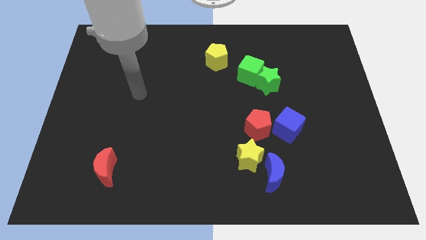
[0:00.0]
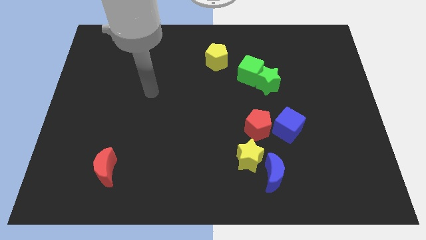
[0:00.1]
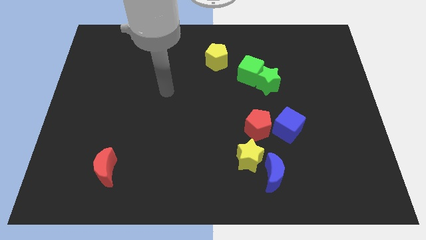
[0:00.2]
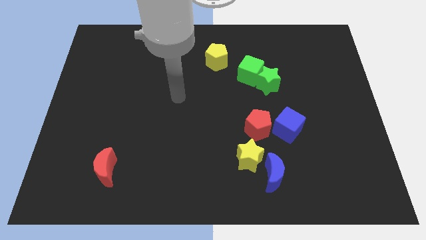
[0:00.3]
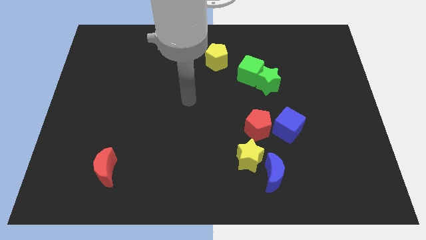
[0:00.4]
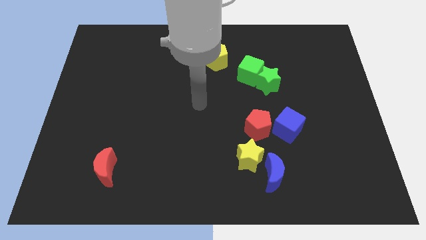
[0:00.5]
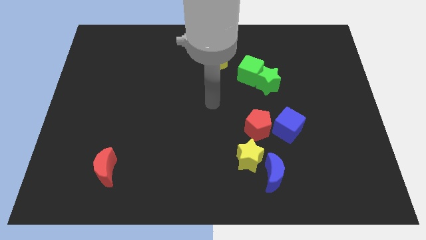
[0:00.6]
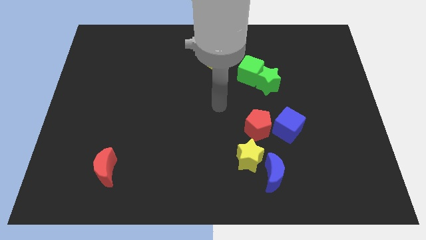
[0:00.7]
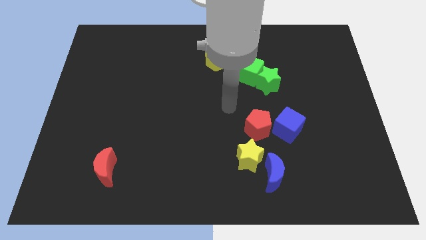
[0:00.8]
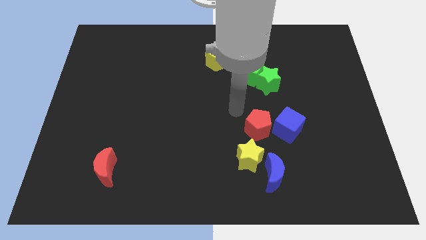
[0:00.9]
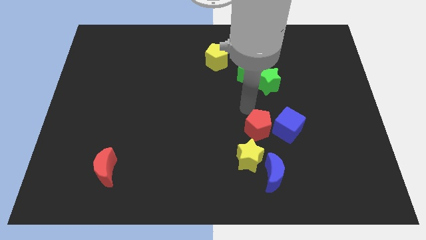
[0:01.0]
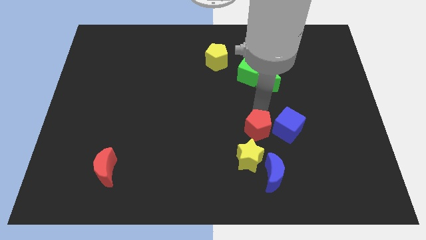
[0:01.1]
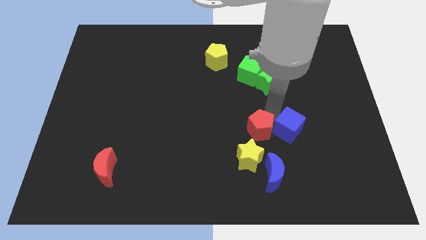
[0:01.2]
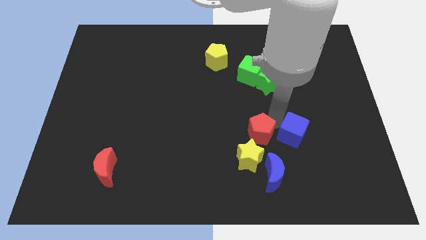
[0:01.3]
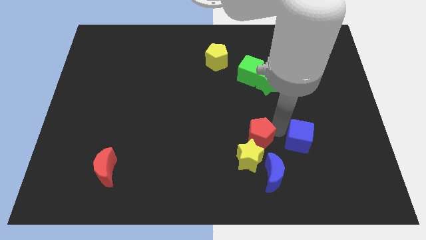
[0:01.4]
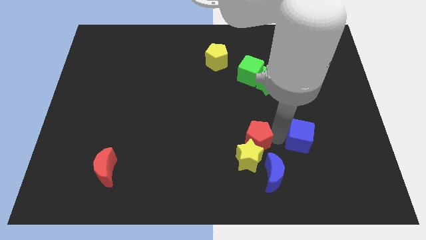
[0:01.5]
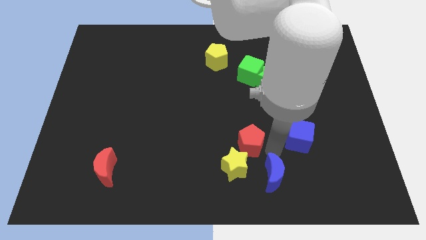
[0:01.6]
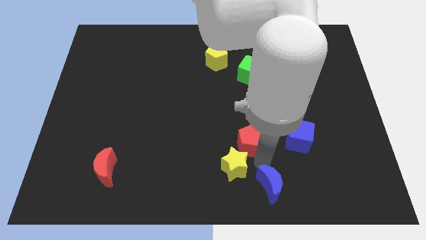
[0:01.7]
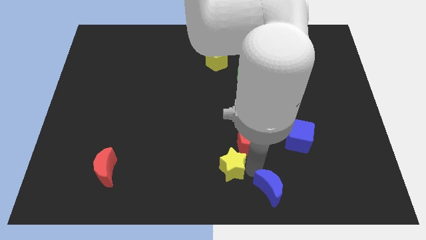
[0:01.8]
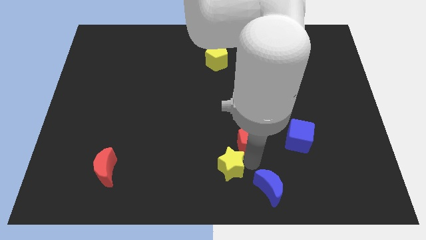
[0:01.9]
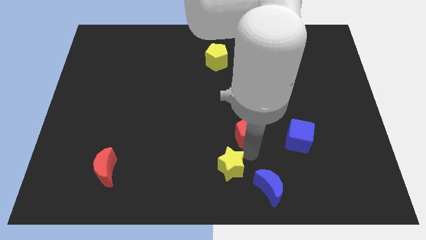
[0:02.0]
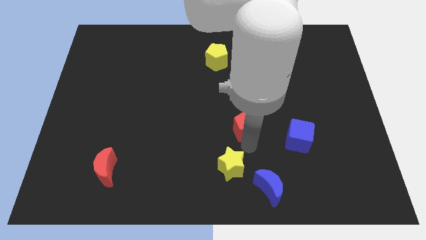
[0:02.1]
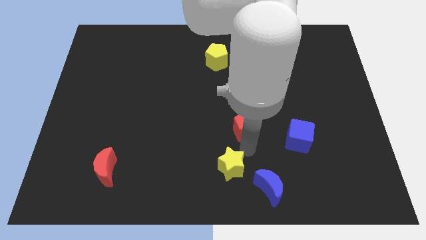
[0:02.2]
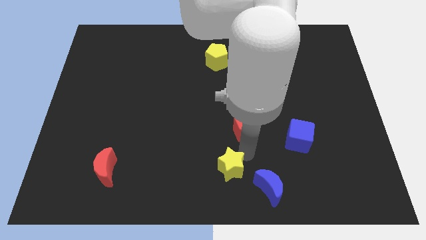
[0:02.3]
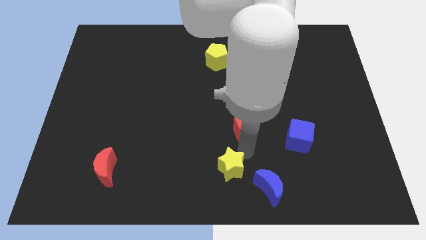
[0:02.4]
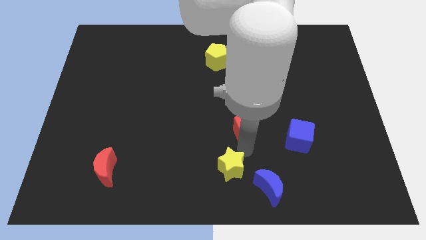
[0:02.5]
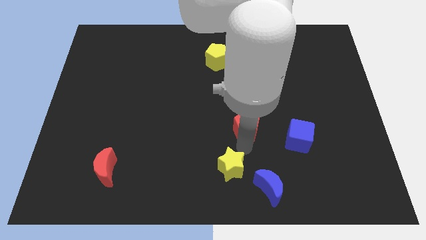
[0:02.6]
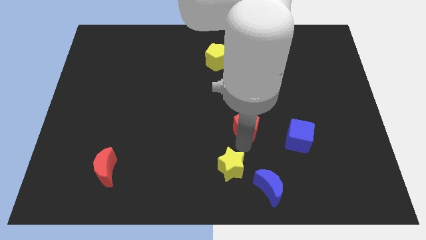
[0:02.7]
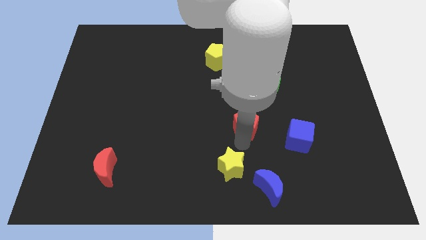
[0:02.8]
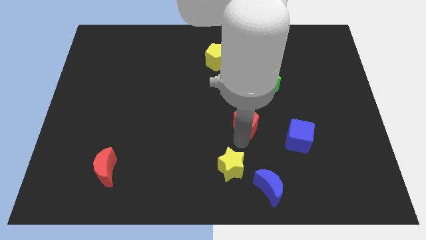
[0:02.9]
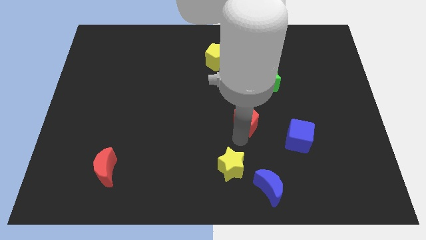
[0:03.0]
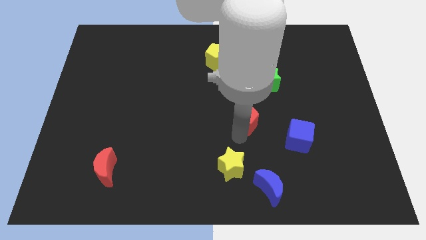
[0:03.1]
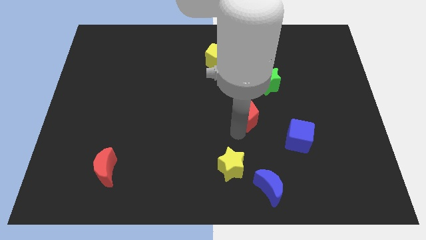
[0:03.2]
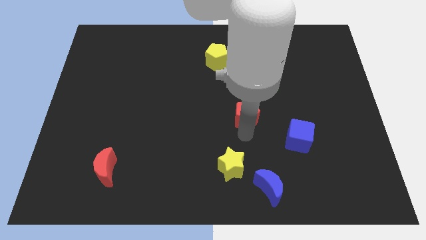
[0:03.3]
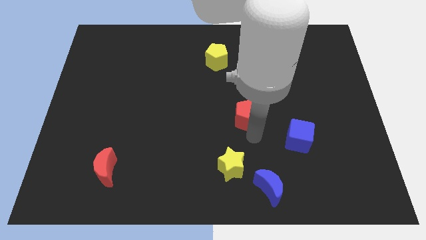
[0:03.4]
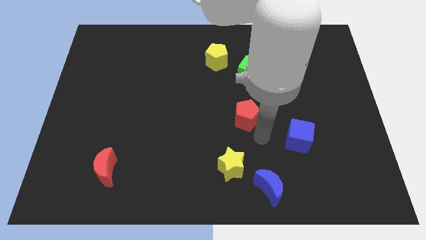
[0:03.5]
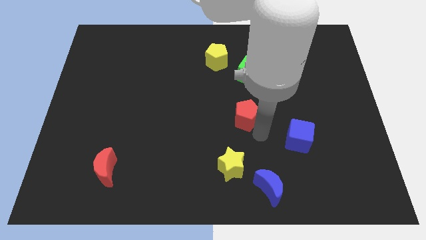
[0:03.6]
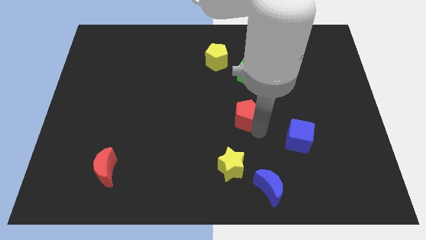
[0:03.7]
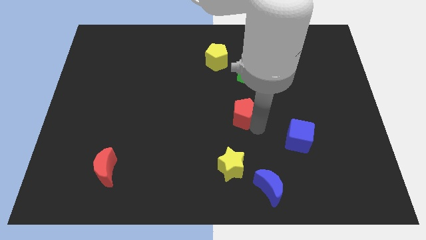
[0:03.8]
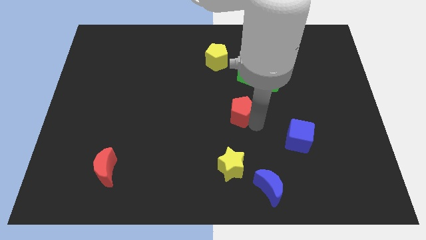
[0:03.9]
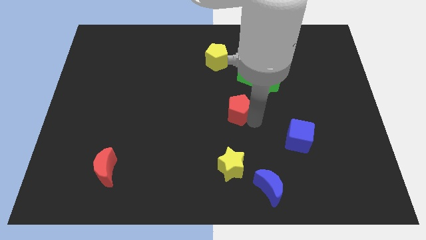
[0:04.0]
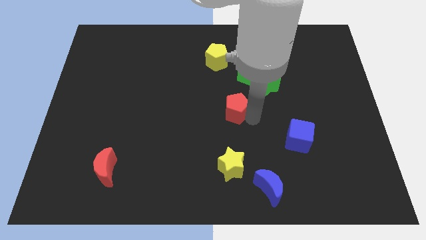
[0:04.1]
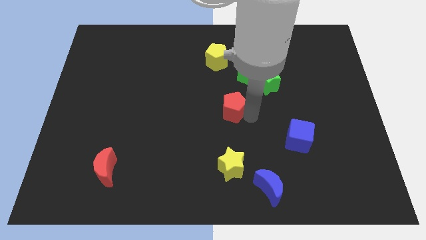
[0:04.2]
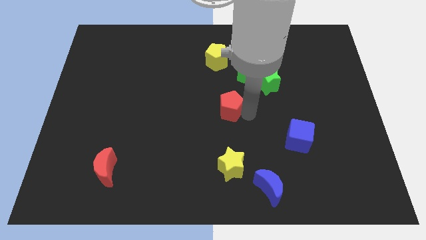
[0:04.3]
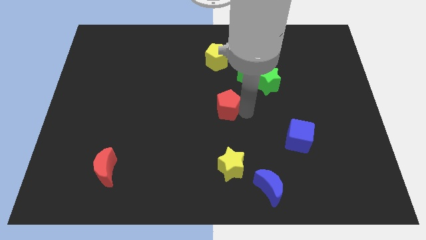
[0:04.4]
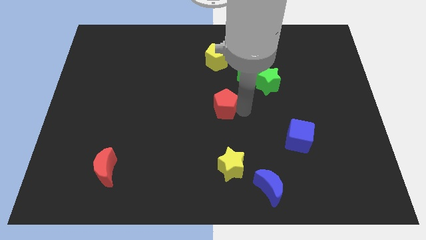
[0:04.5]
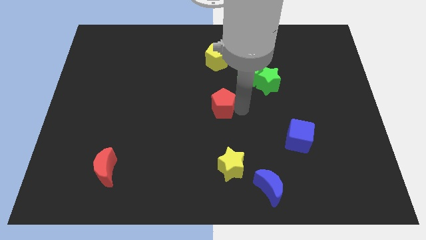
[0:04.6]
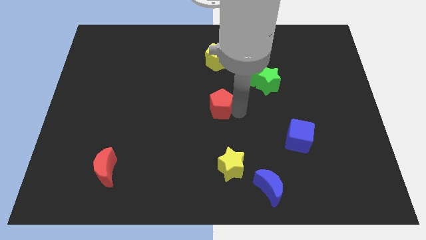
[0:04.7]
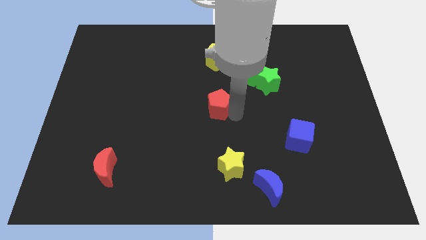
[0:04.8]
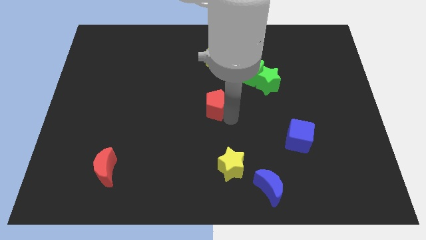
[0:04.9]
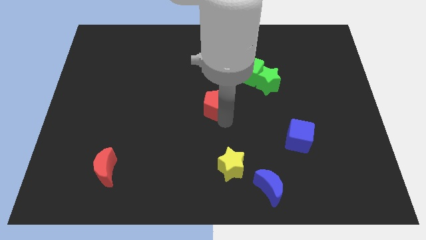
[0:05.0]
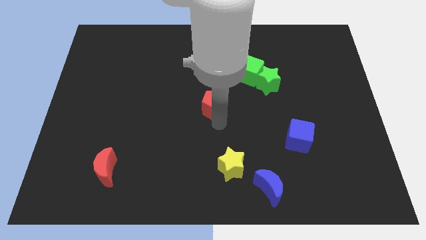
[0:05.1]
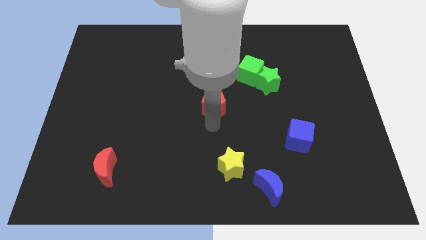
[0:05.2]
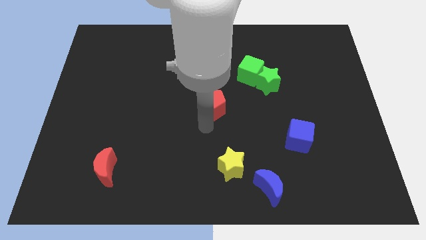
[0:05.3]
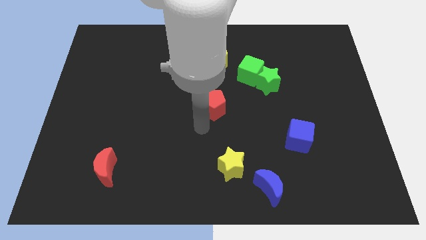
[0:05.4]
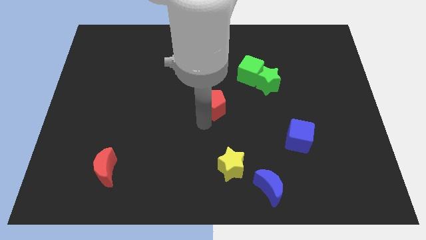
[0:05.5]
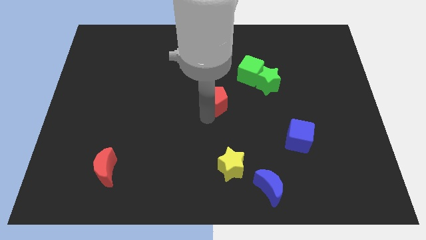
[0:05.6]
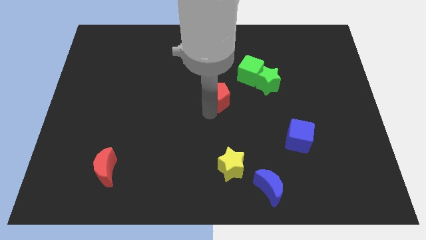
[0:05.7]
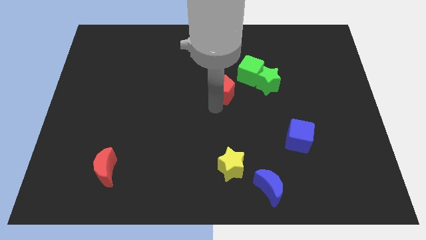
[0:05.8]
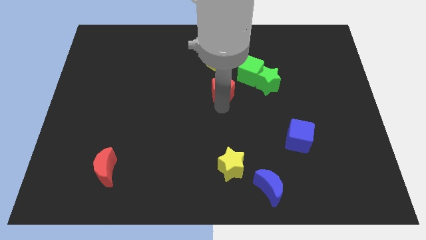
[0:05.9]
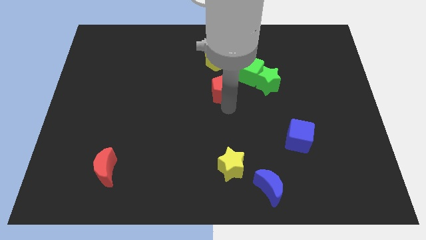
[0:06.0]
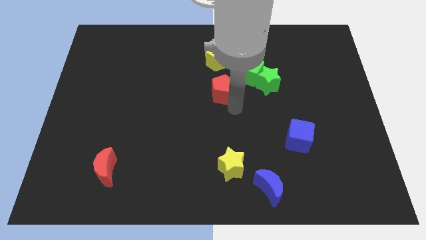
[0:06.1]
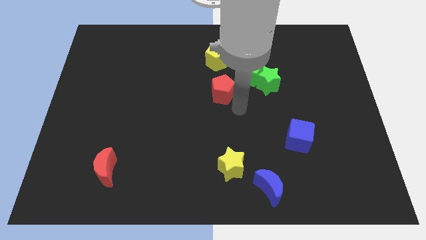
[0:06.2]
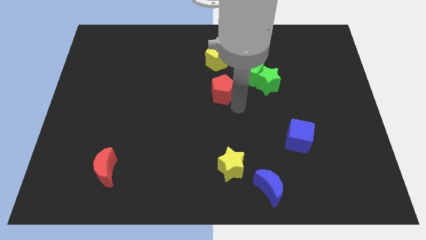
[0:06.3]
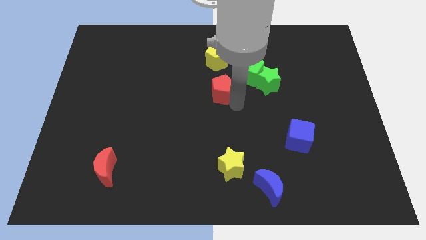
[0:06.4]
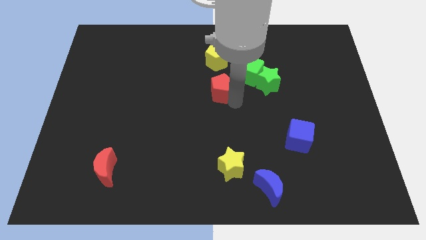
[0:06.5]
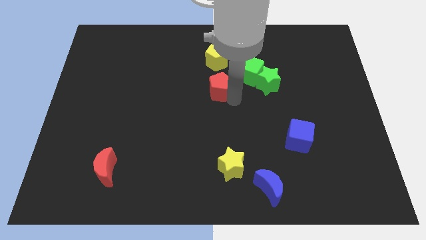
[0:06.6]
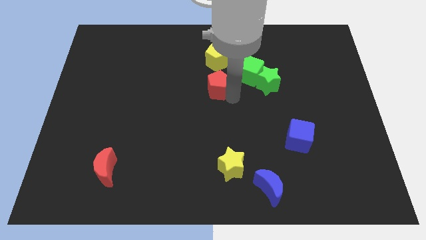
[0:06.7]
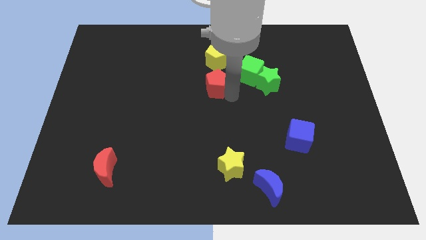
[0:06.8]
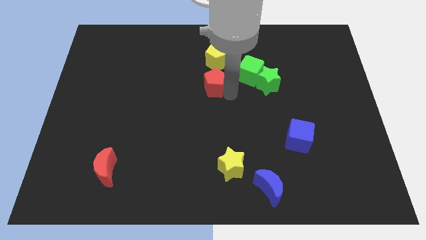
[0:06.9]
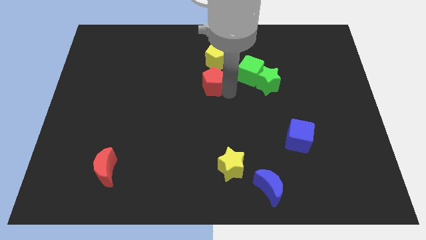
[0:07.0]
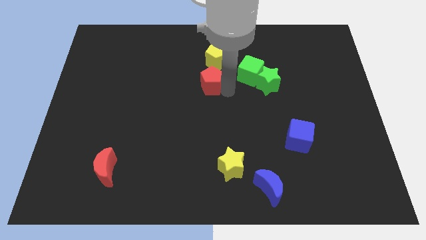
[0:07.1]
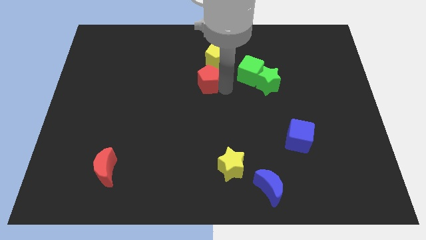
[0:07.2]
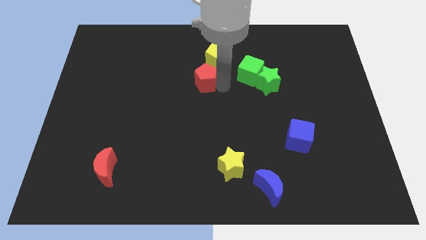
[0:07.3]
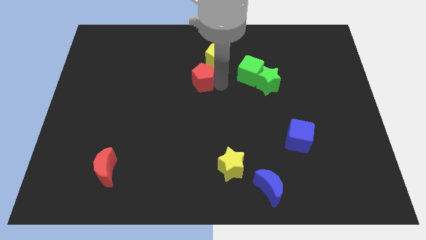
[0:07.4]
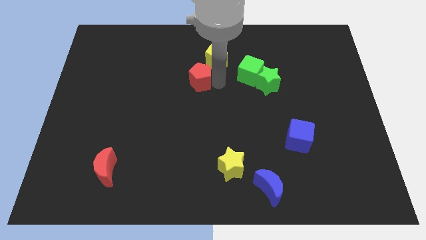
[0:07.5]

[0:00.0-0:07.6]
move the red pentagon upwards and then to the left
